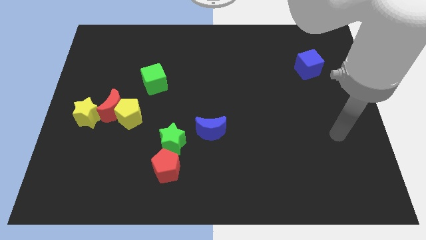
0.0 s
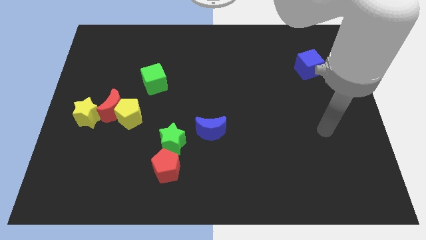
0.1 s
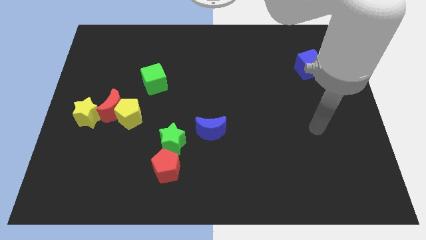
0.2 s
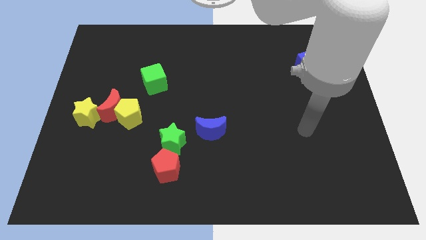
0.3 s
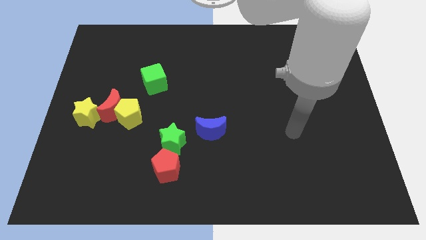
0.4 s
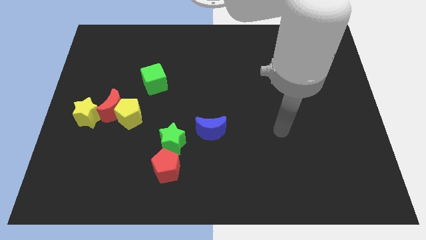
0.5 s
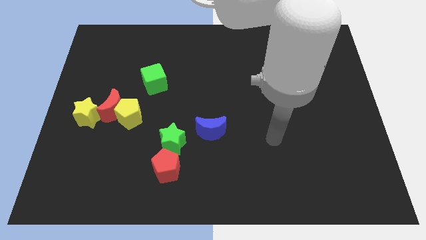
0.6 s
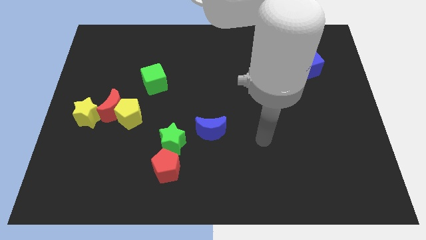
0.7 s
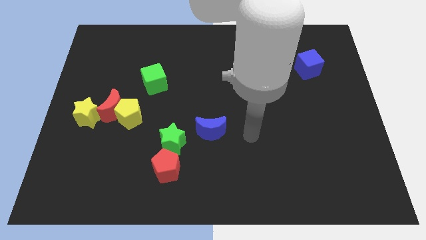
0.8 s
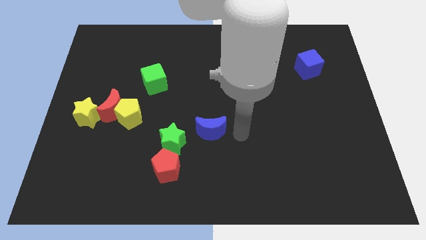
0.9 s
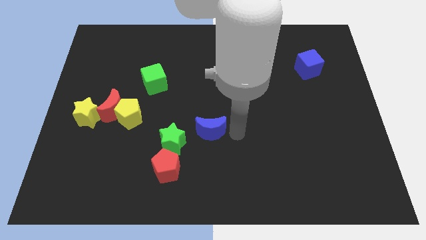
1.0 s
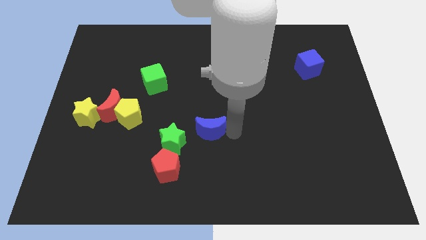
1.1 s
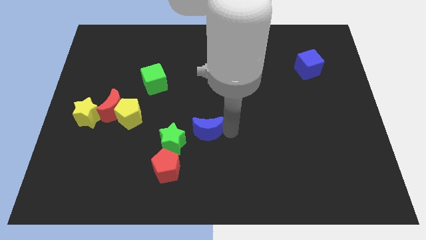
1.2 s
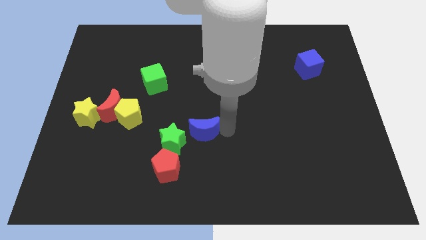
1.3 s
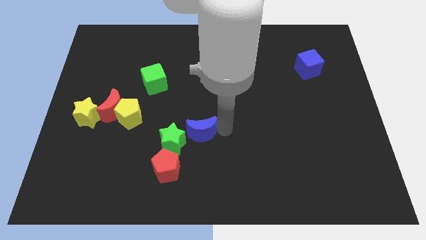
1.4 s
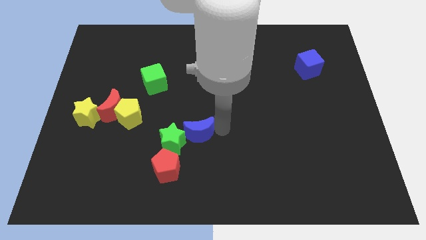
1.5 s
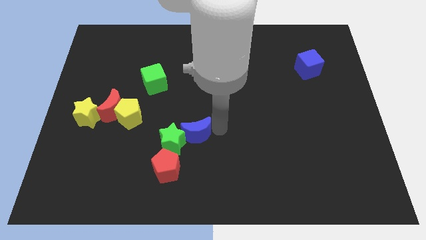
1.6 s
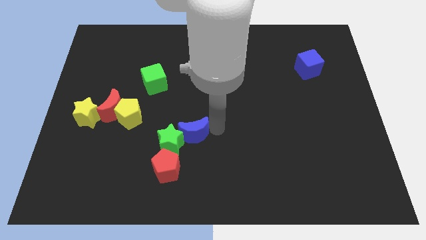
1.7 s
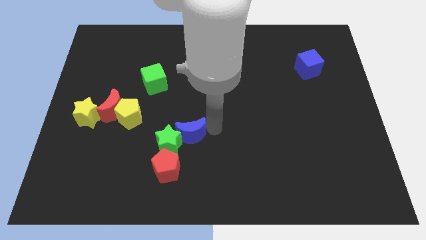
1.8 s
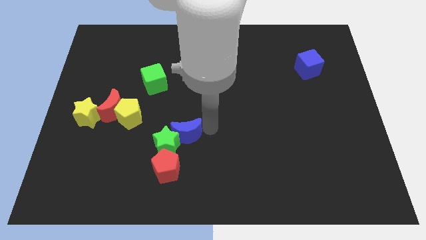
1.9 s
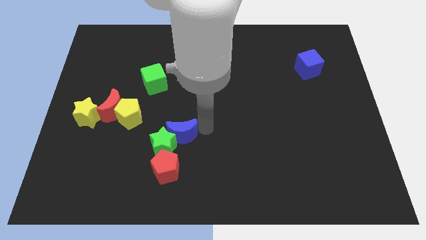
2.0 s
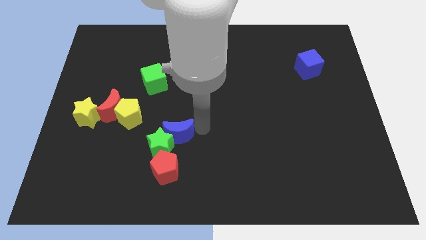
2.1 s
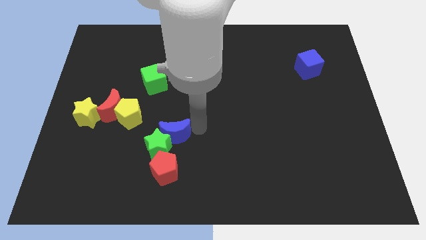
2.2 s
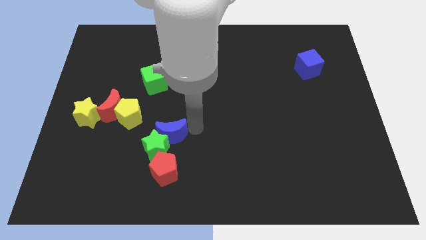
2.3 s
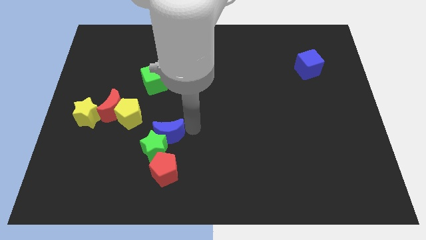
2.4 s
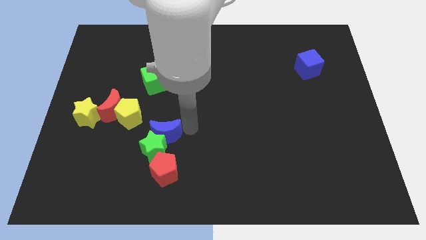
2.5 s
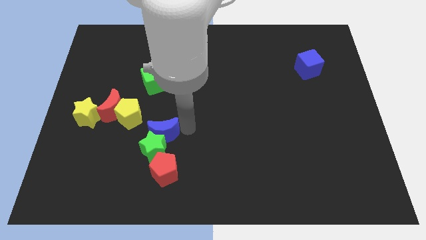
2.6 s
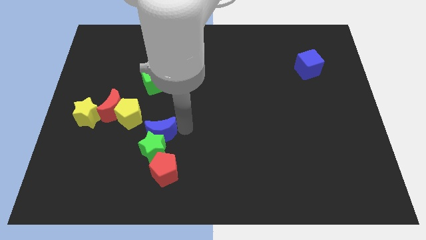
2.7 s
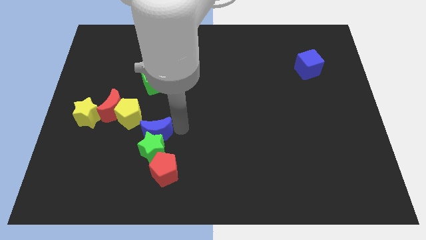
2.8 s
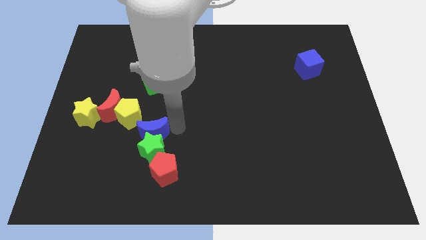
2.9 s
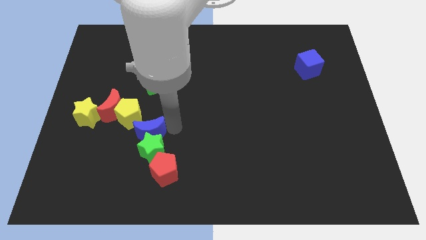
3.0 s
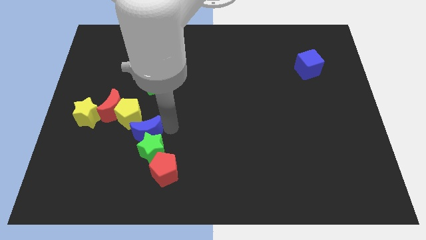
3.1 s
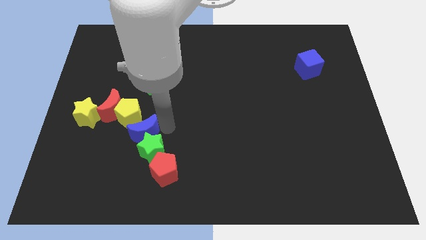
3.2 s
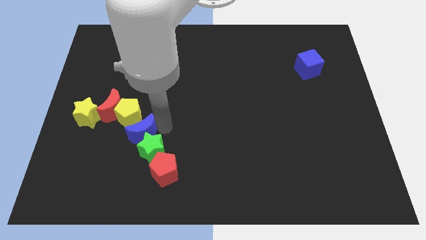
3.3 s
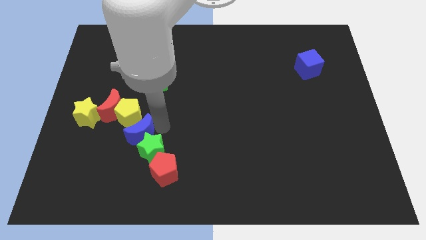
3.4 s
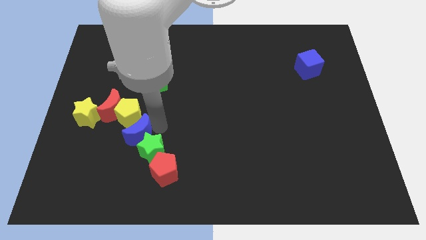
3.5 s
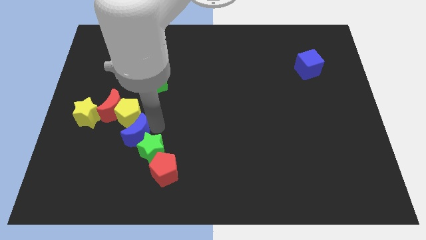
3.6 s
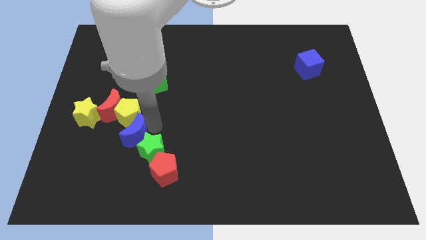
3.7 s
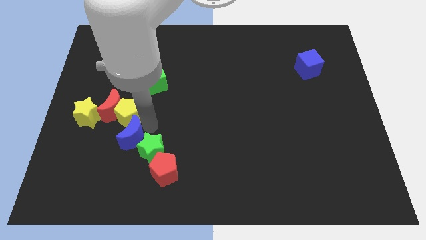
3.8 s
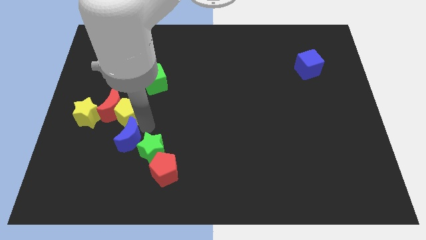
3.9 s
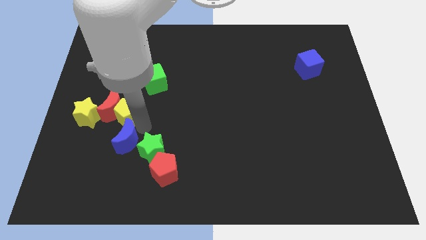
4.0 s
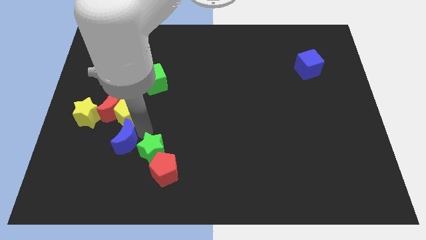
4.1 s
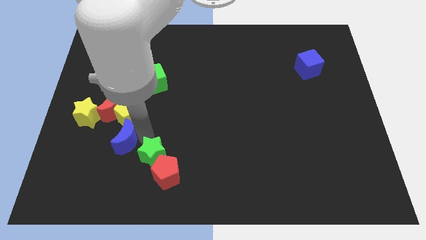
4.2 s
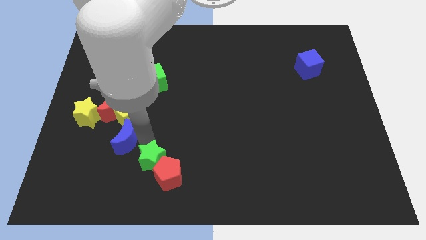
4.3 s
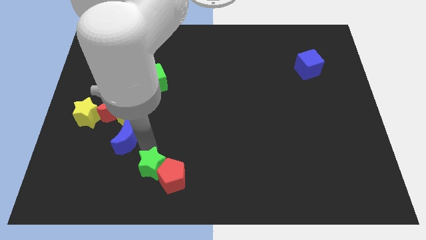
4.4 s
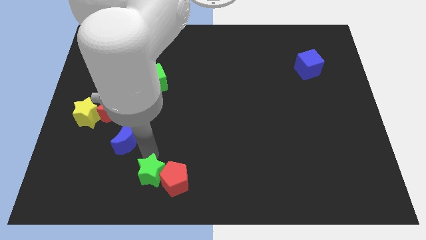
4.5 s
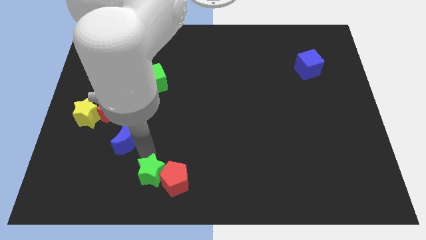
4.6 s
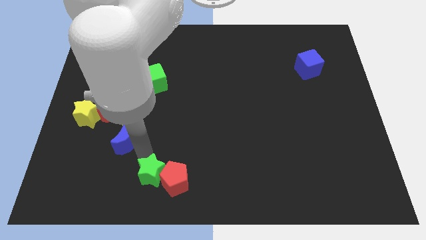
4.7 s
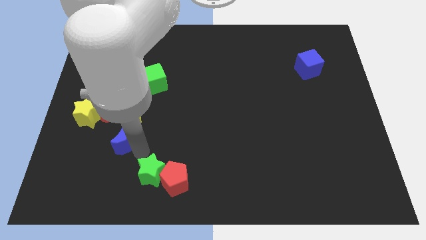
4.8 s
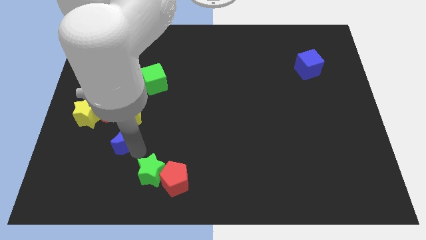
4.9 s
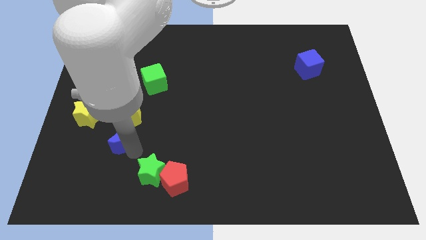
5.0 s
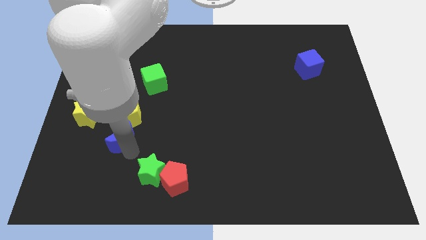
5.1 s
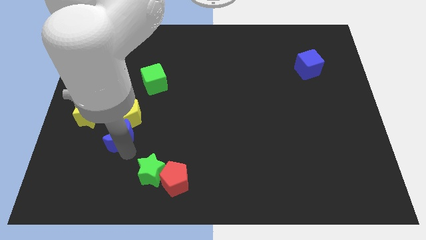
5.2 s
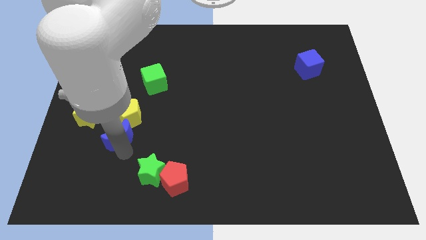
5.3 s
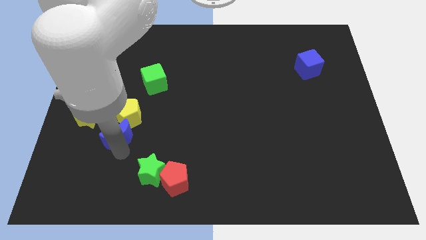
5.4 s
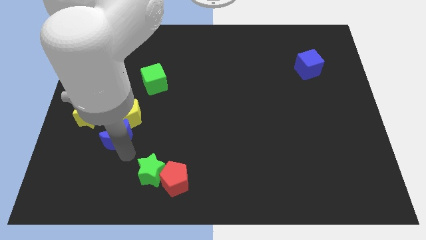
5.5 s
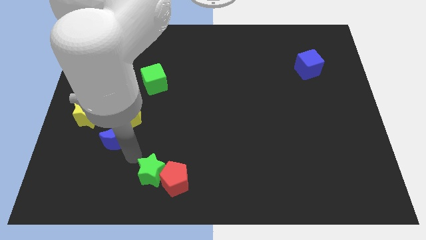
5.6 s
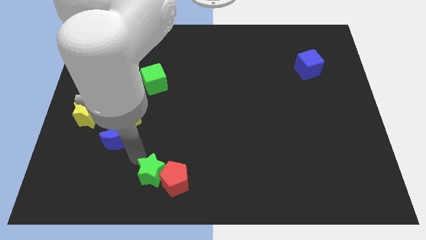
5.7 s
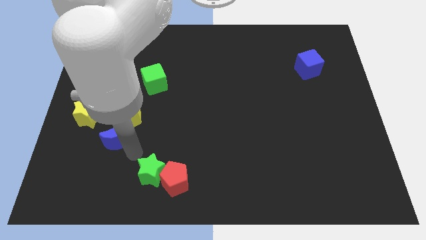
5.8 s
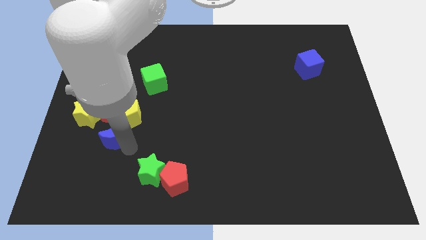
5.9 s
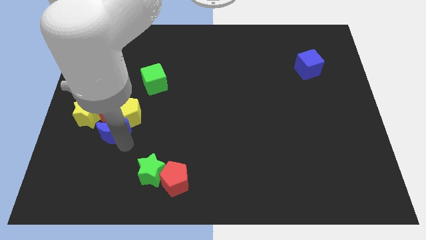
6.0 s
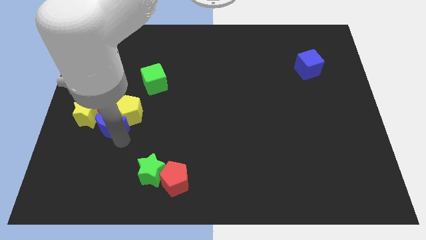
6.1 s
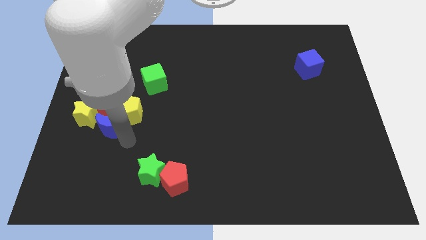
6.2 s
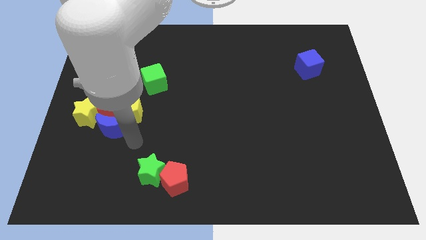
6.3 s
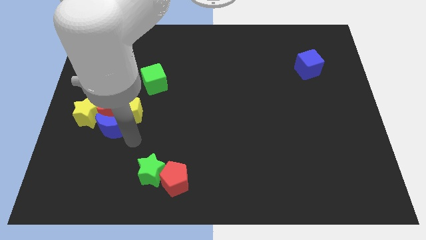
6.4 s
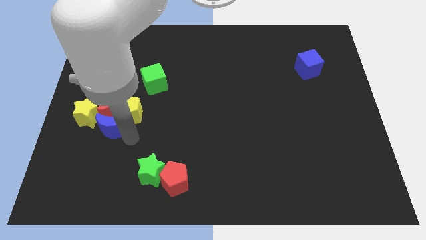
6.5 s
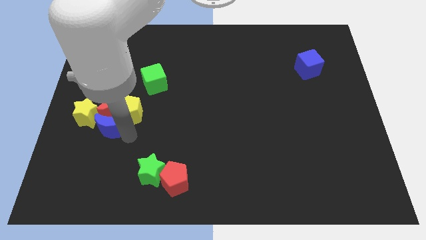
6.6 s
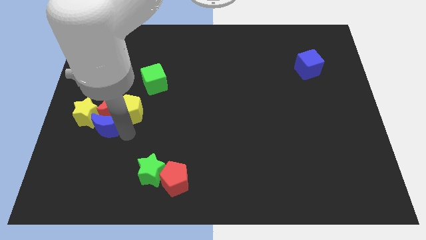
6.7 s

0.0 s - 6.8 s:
push the blue moon next to the yellow star

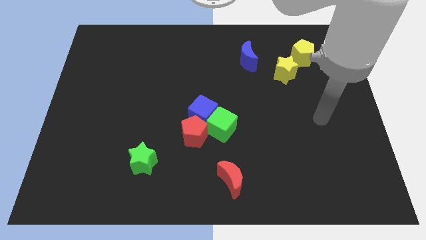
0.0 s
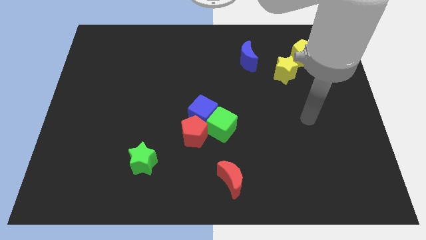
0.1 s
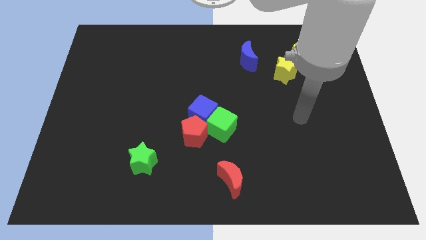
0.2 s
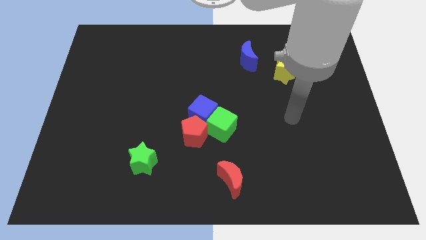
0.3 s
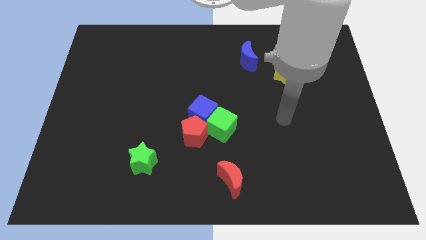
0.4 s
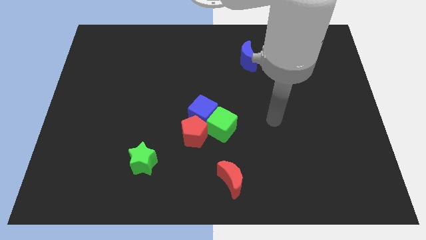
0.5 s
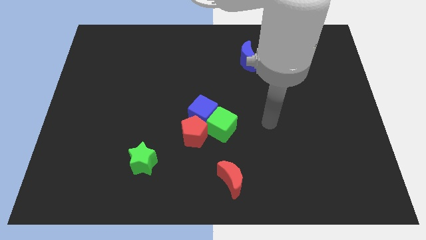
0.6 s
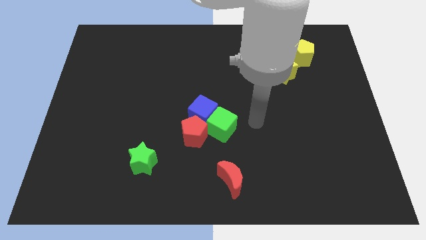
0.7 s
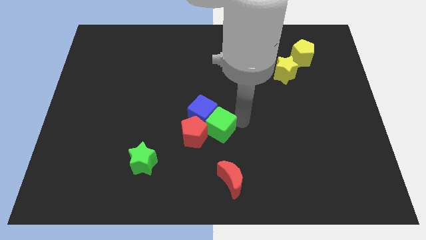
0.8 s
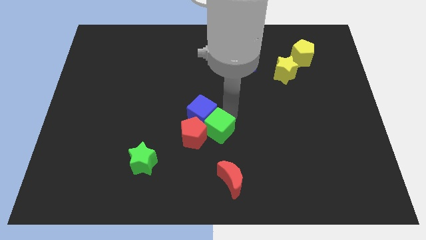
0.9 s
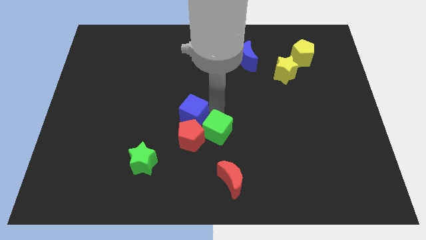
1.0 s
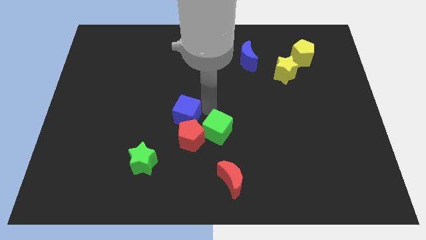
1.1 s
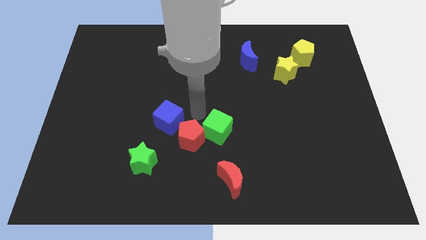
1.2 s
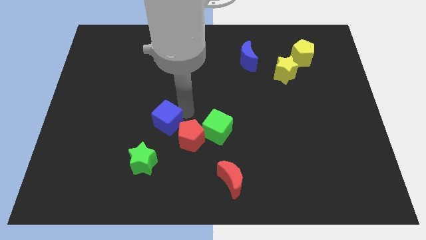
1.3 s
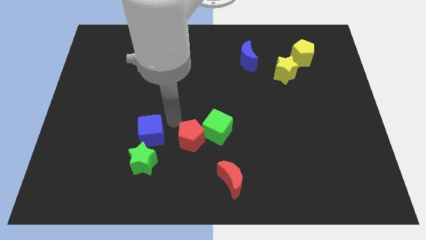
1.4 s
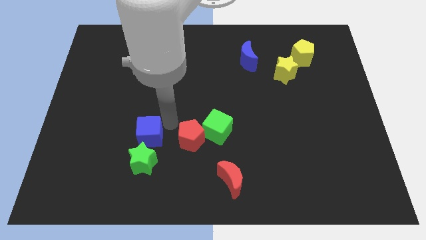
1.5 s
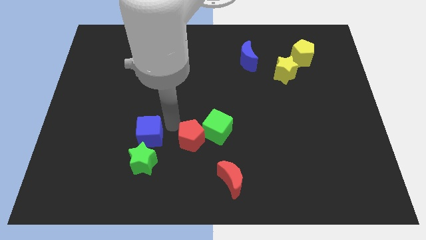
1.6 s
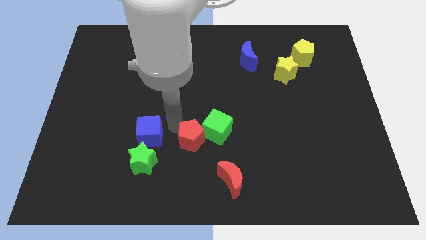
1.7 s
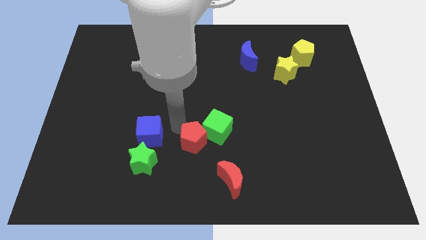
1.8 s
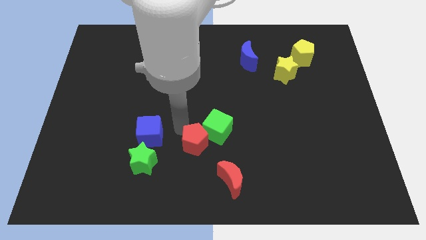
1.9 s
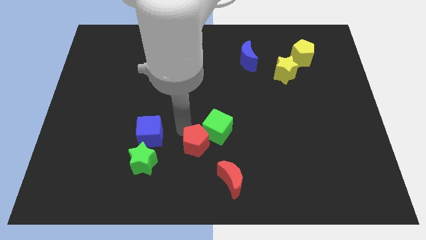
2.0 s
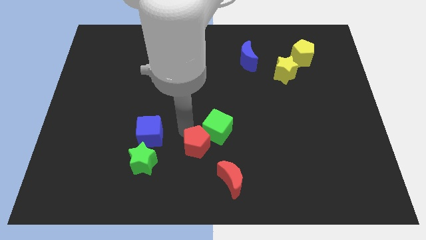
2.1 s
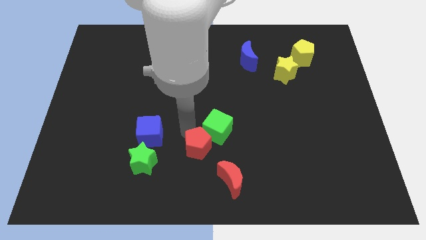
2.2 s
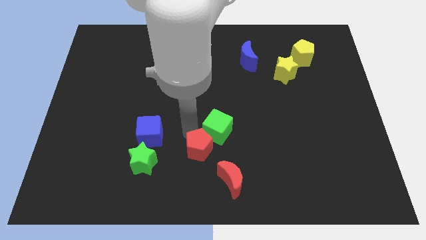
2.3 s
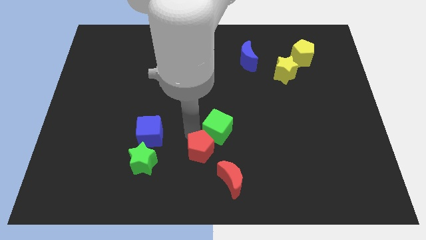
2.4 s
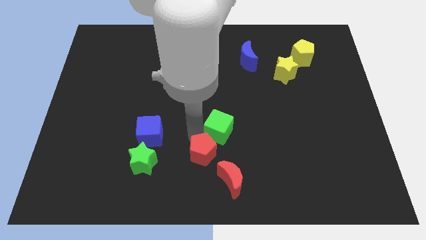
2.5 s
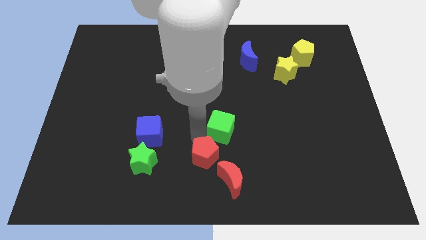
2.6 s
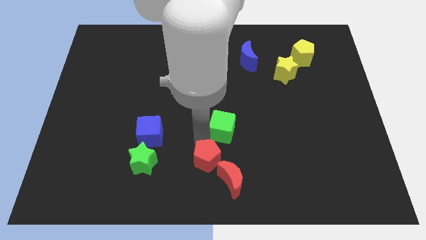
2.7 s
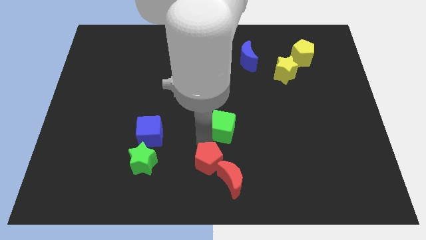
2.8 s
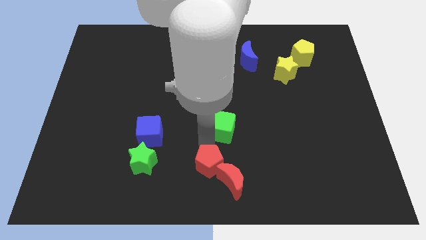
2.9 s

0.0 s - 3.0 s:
slide the red pentagon to the red moon
